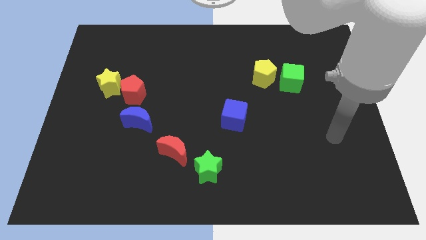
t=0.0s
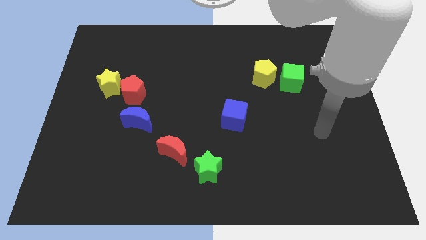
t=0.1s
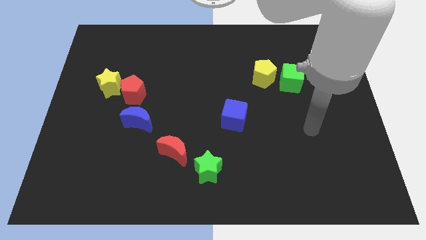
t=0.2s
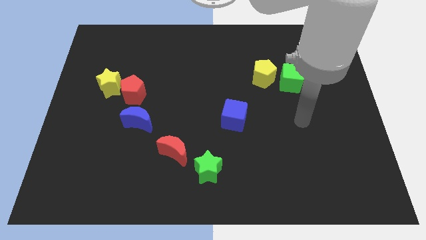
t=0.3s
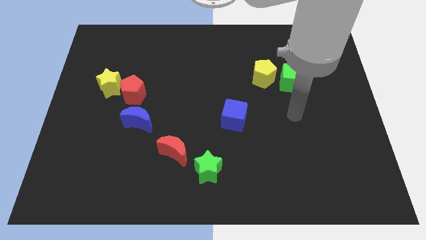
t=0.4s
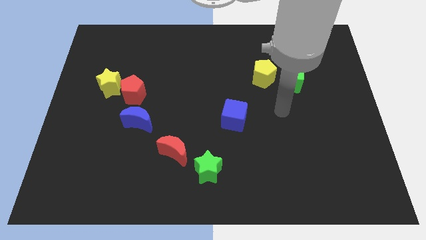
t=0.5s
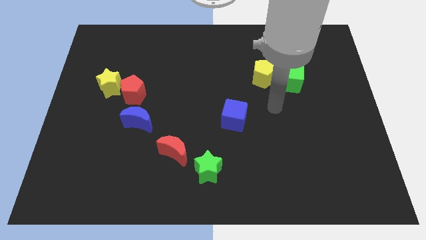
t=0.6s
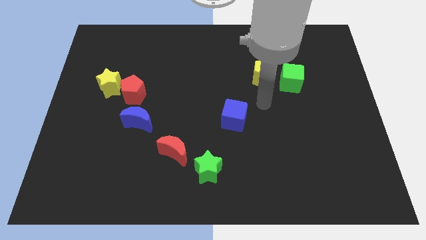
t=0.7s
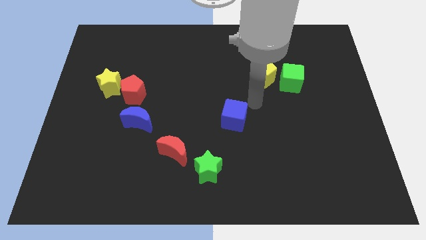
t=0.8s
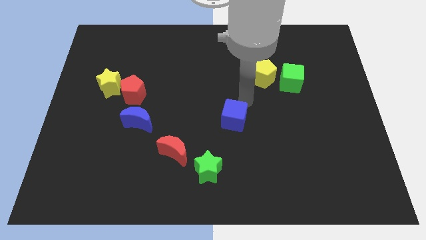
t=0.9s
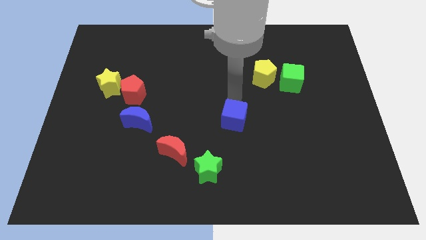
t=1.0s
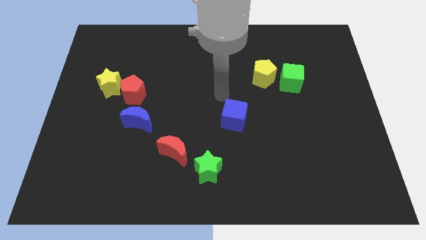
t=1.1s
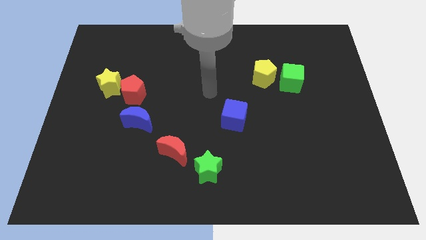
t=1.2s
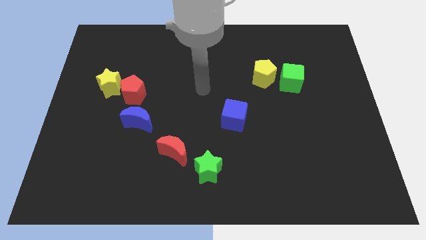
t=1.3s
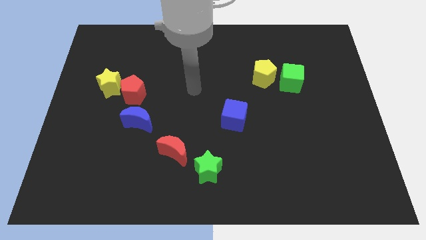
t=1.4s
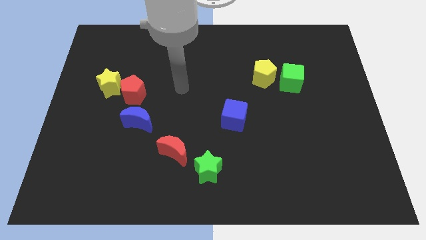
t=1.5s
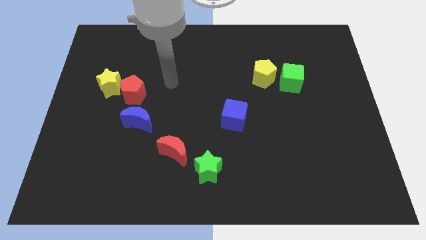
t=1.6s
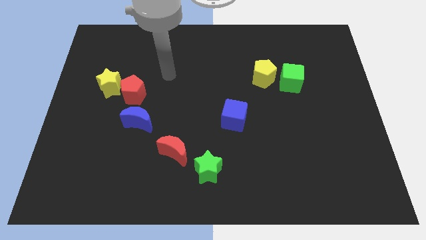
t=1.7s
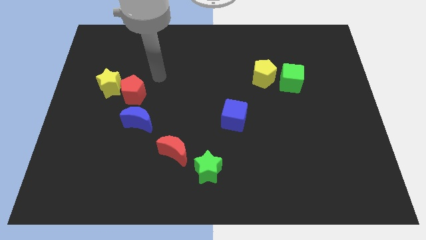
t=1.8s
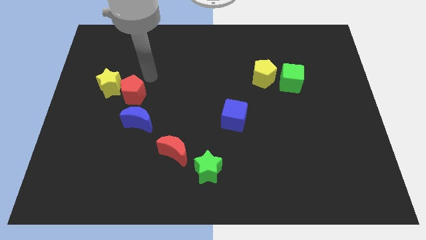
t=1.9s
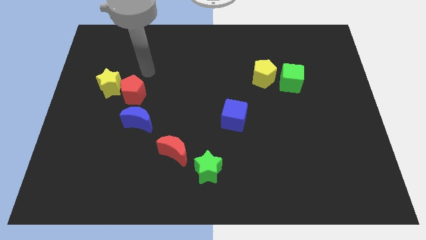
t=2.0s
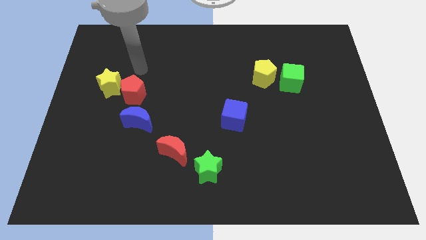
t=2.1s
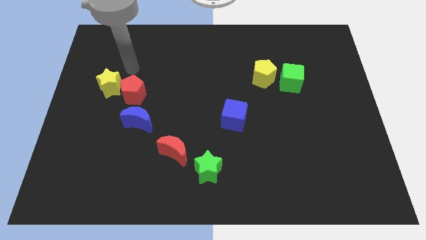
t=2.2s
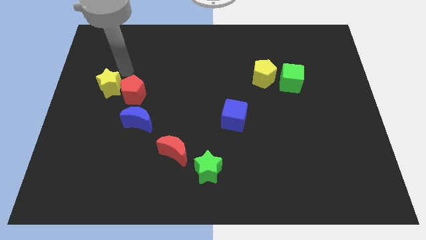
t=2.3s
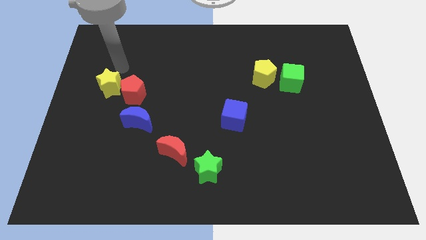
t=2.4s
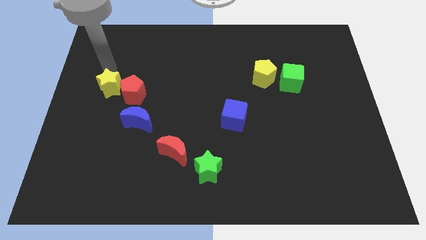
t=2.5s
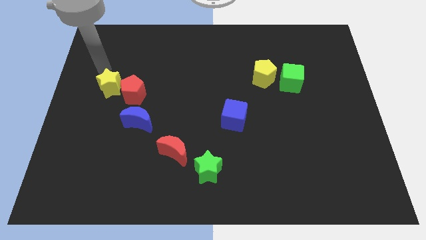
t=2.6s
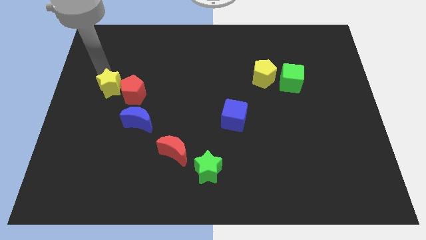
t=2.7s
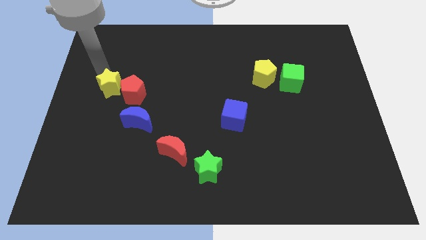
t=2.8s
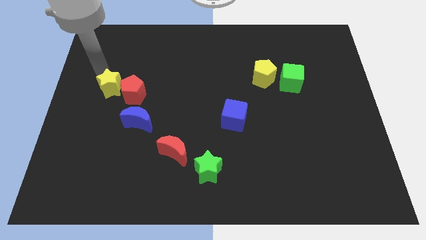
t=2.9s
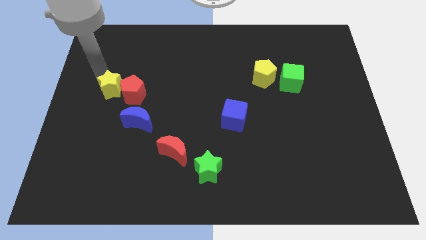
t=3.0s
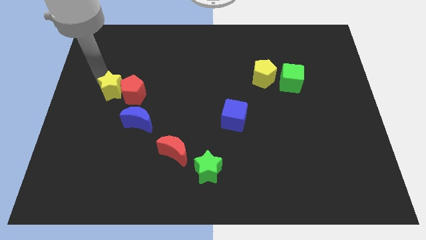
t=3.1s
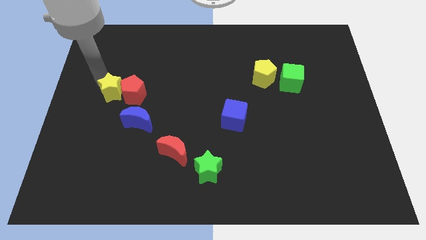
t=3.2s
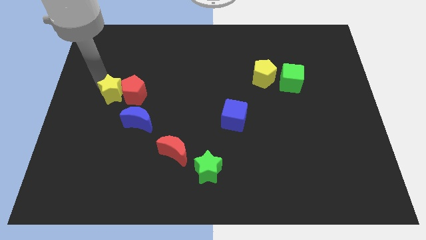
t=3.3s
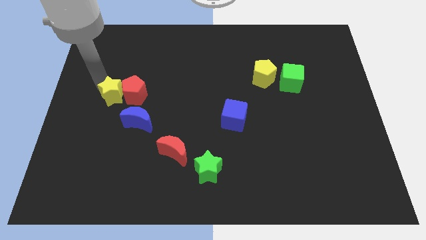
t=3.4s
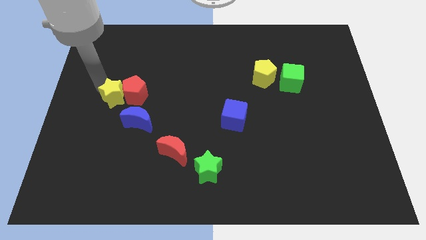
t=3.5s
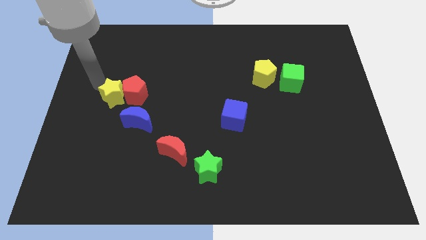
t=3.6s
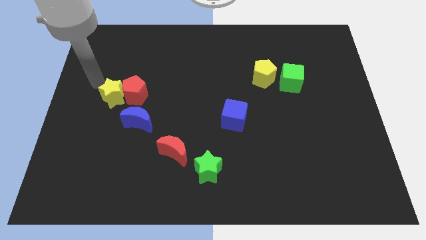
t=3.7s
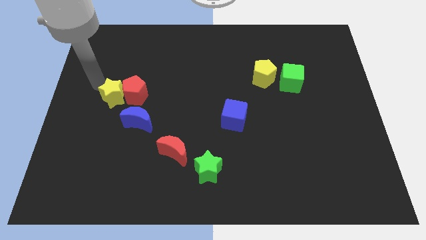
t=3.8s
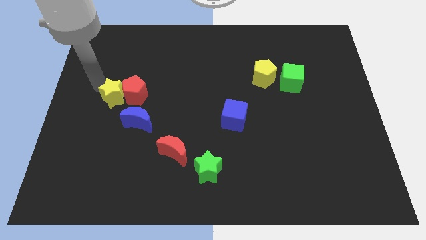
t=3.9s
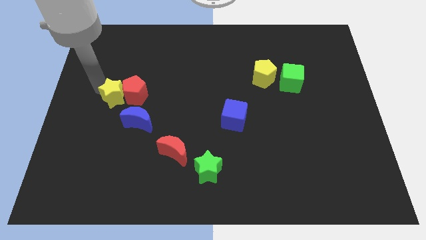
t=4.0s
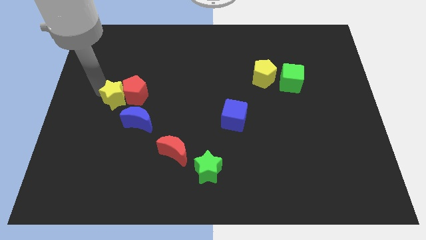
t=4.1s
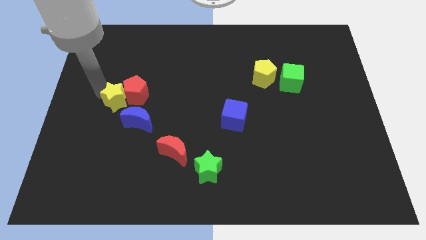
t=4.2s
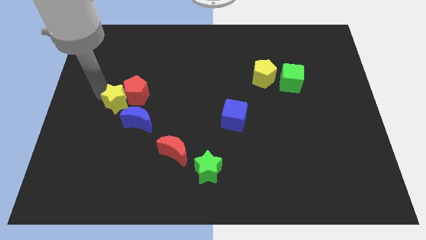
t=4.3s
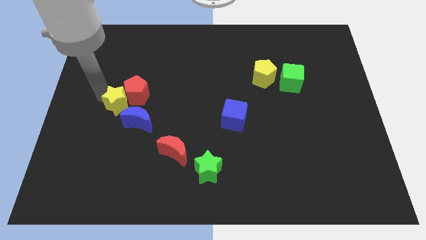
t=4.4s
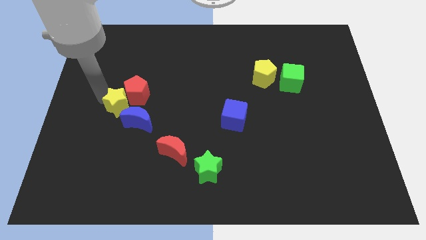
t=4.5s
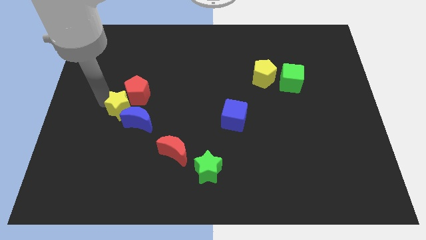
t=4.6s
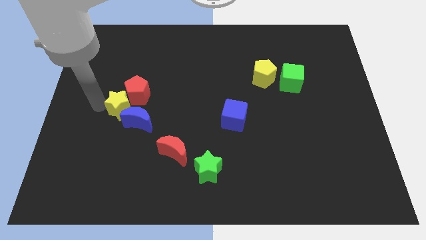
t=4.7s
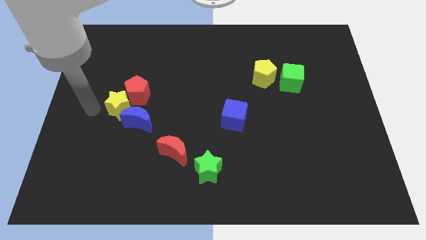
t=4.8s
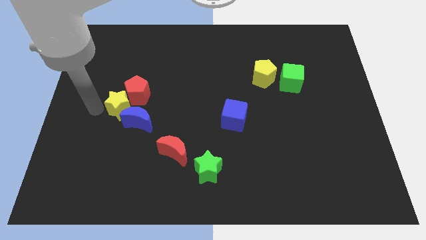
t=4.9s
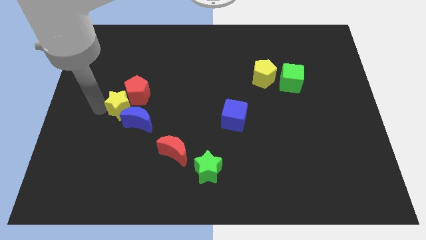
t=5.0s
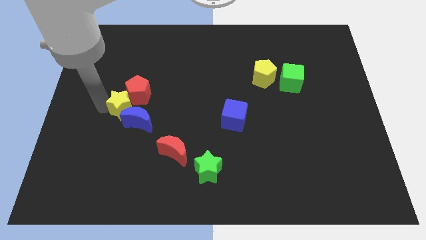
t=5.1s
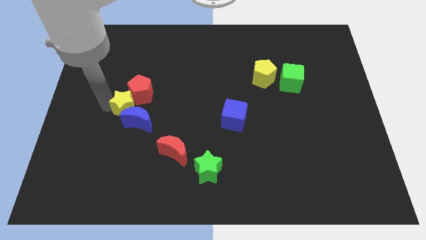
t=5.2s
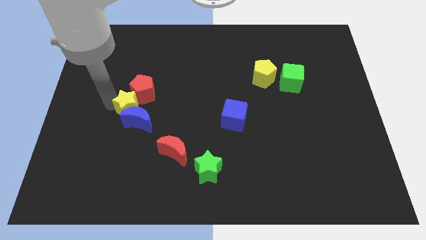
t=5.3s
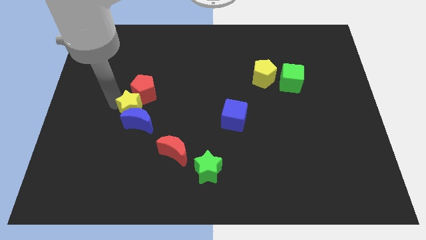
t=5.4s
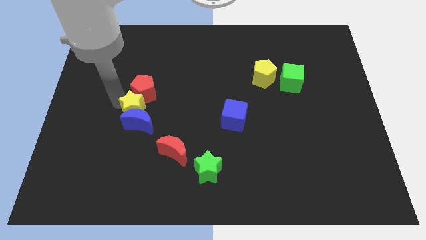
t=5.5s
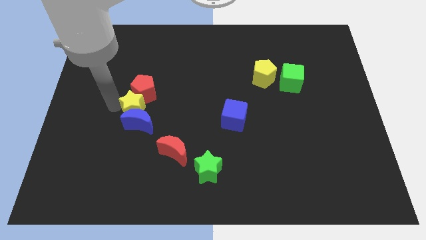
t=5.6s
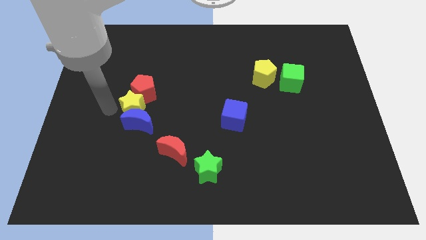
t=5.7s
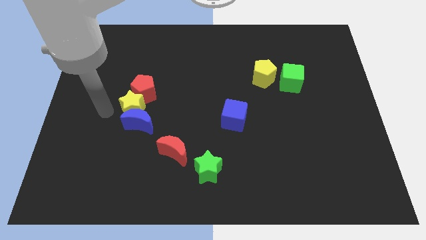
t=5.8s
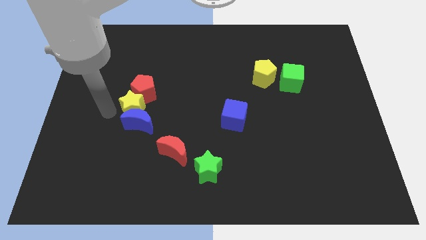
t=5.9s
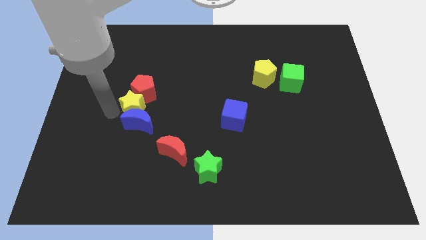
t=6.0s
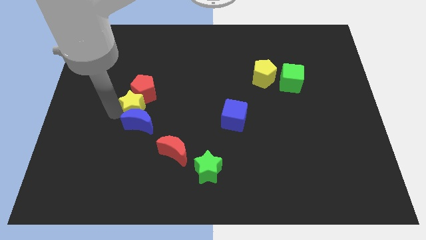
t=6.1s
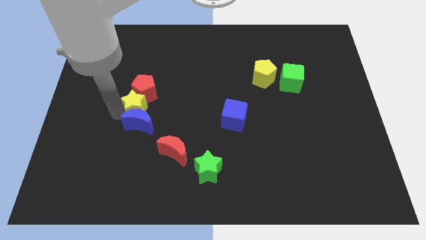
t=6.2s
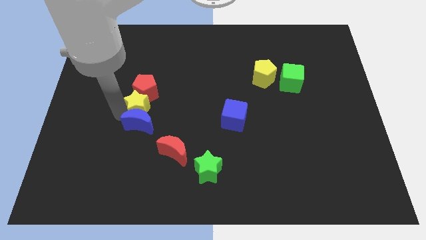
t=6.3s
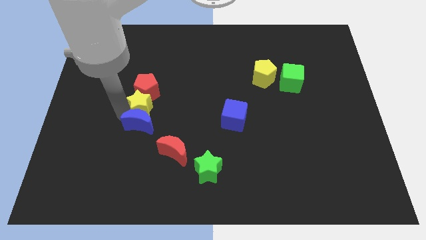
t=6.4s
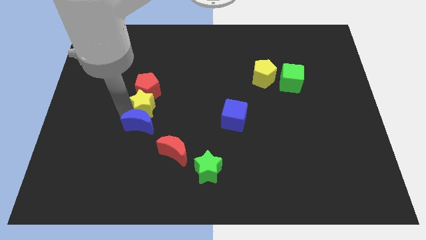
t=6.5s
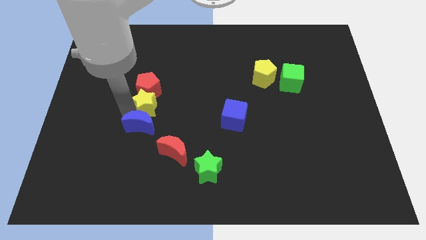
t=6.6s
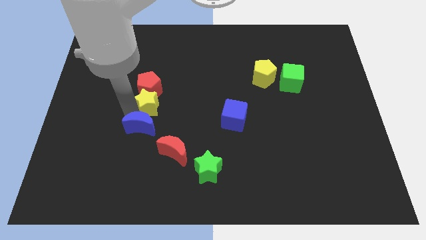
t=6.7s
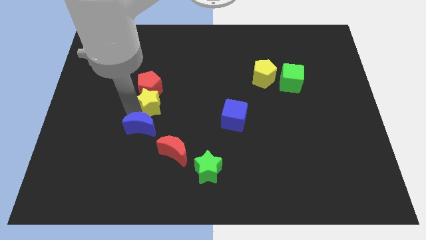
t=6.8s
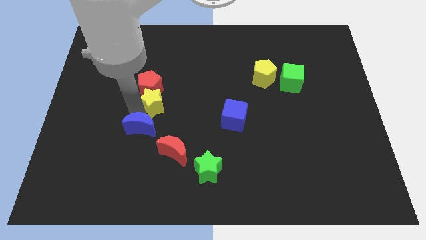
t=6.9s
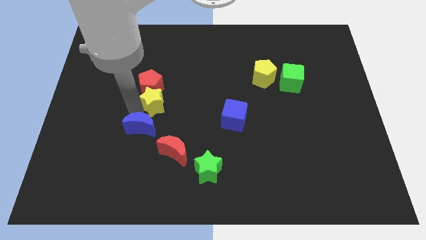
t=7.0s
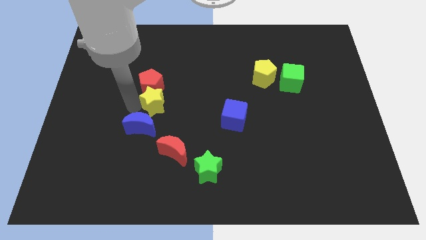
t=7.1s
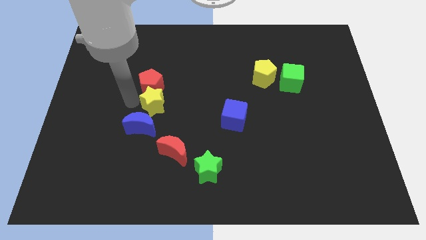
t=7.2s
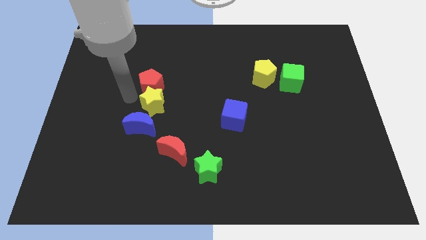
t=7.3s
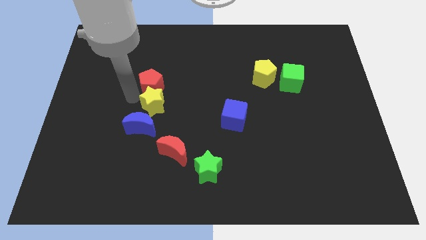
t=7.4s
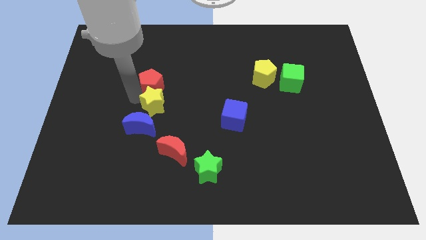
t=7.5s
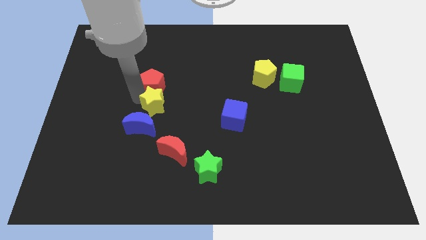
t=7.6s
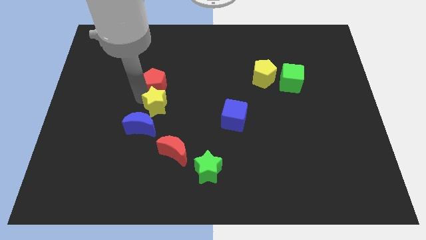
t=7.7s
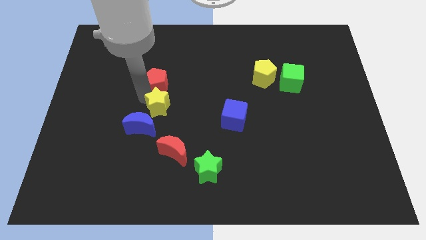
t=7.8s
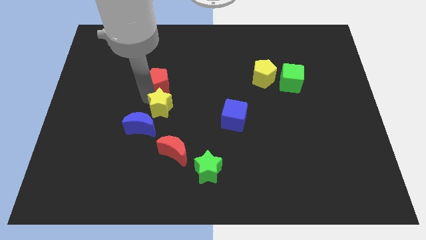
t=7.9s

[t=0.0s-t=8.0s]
slide the yellow star to the top side of the red moon
